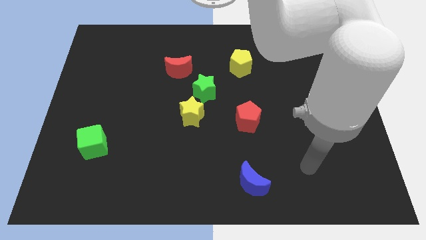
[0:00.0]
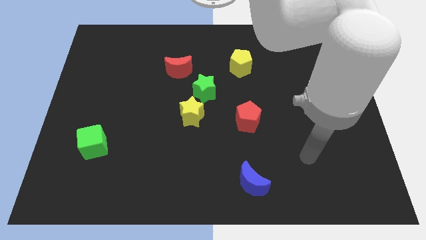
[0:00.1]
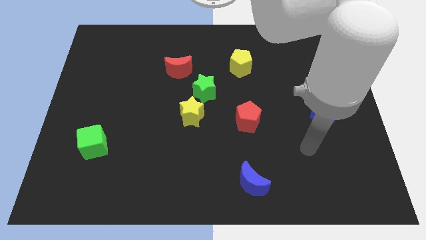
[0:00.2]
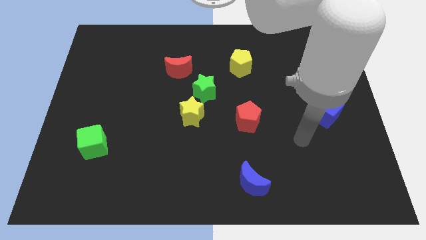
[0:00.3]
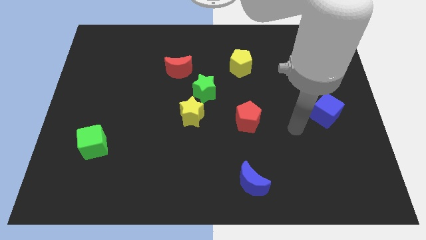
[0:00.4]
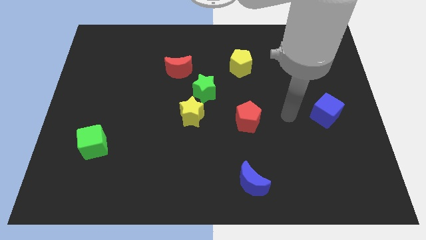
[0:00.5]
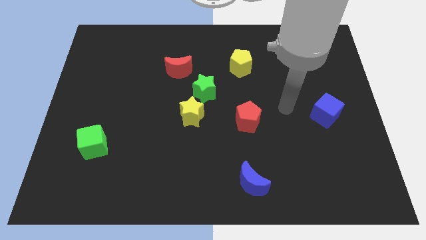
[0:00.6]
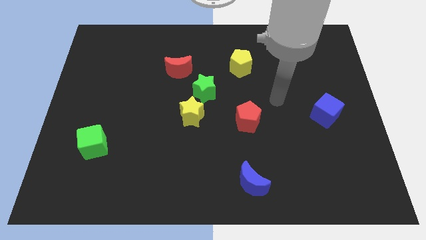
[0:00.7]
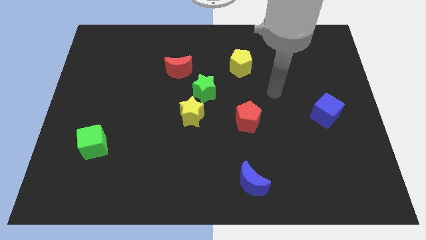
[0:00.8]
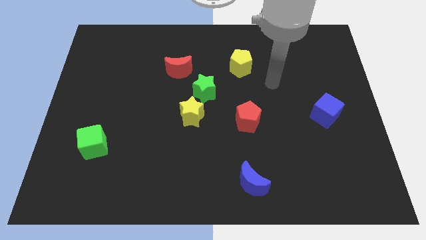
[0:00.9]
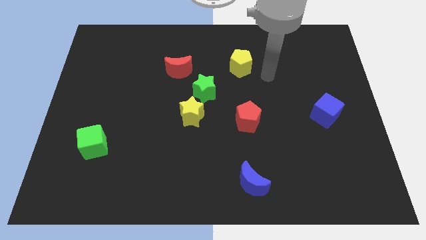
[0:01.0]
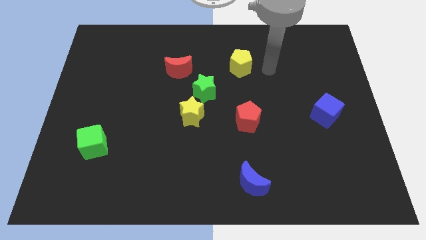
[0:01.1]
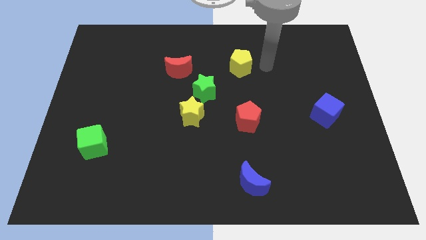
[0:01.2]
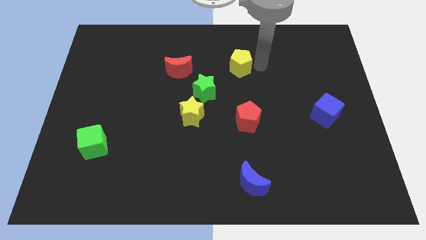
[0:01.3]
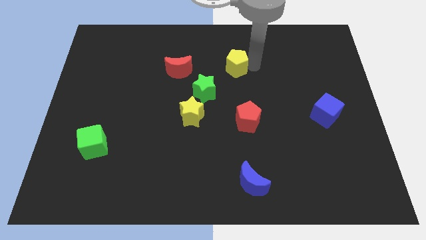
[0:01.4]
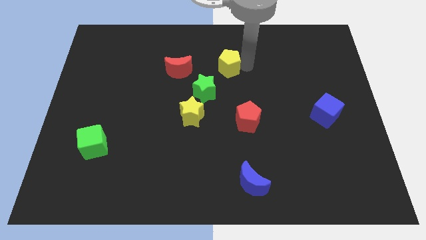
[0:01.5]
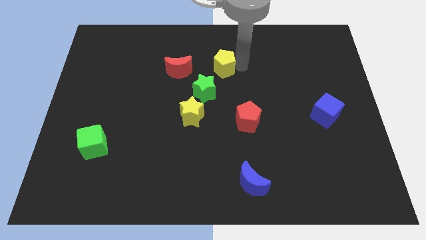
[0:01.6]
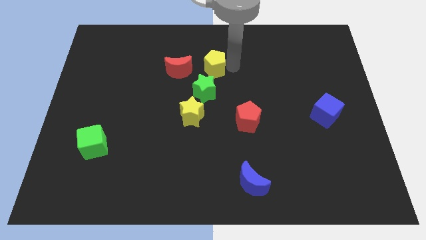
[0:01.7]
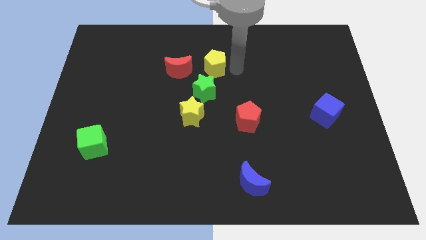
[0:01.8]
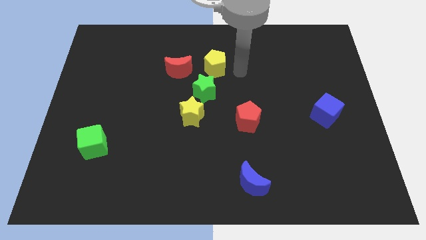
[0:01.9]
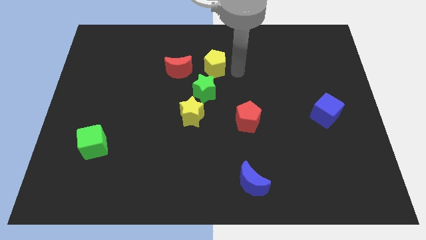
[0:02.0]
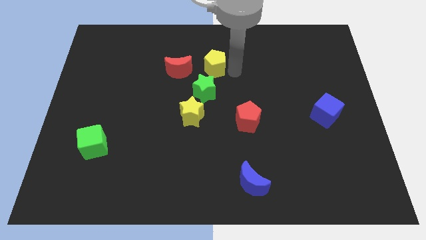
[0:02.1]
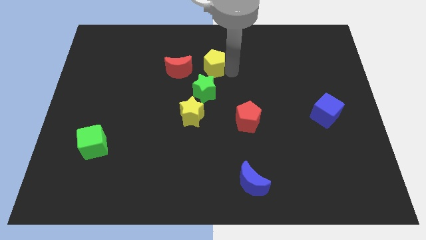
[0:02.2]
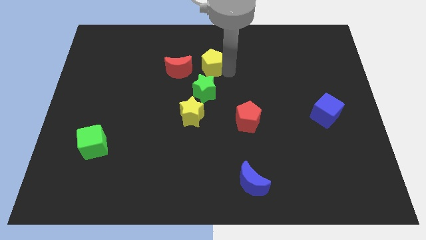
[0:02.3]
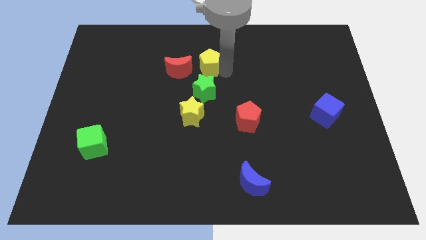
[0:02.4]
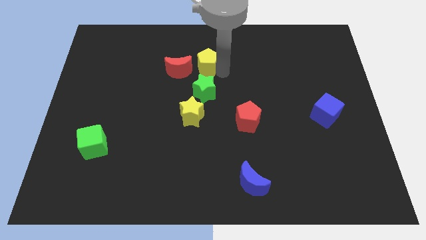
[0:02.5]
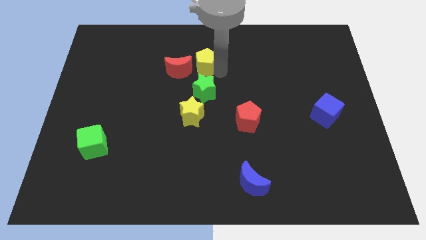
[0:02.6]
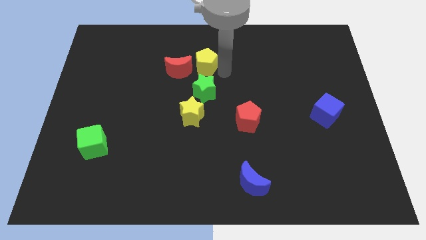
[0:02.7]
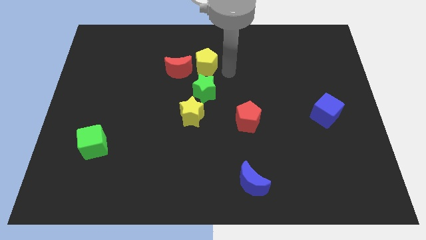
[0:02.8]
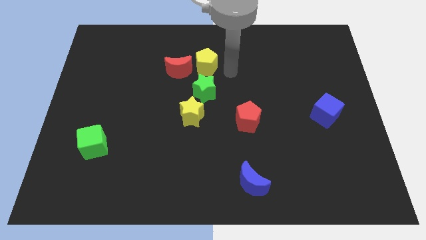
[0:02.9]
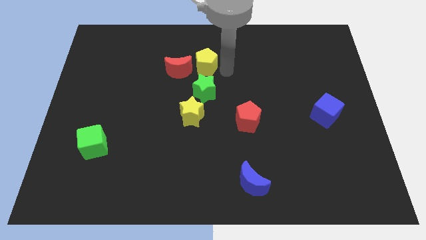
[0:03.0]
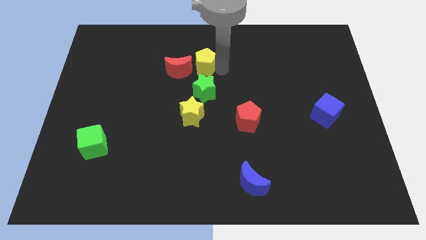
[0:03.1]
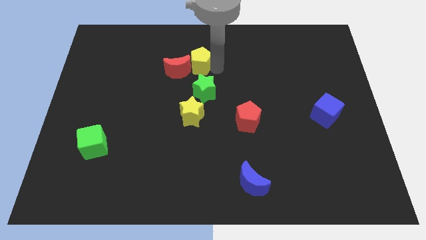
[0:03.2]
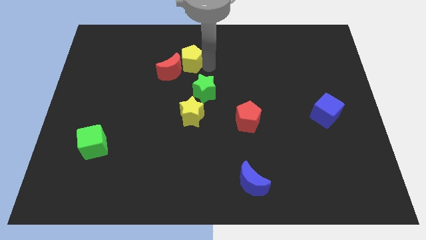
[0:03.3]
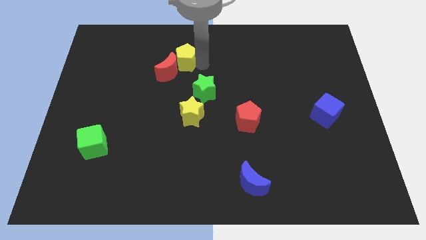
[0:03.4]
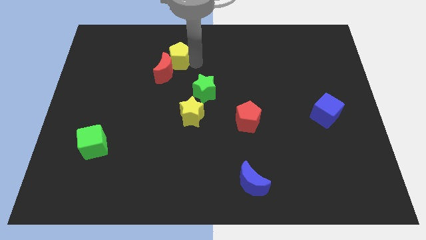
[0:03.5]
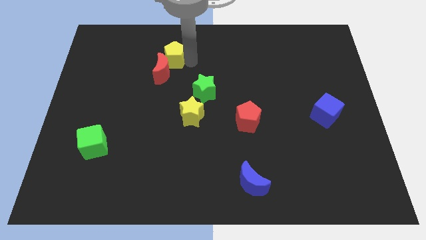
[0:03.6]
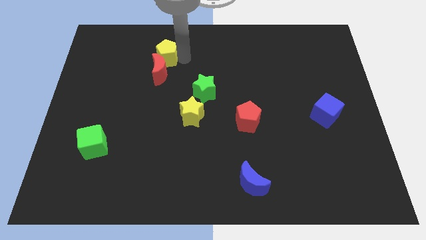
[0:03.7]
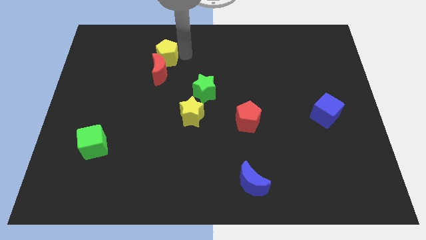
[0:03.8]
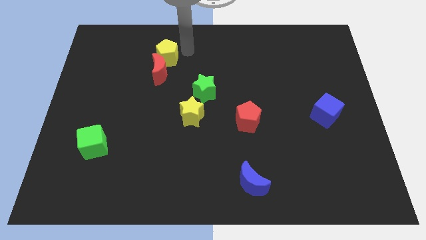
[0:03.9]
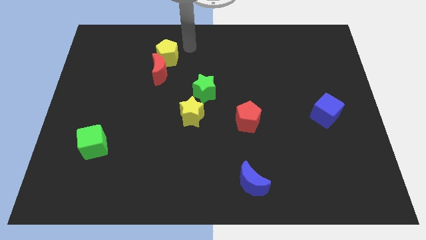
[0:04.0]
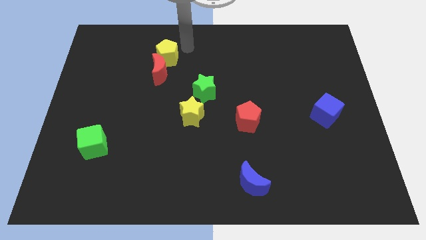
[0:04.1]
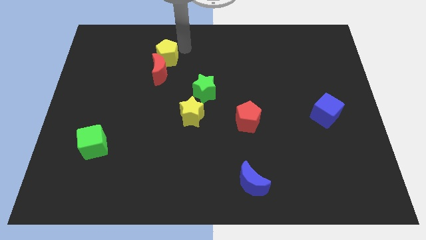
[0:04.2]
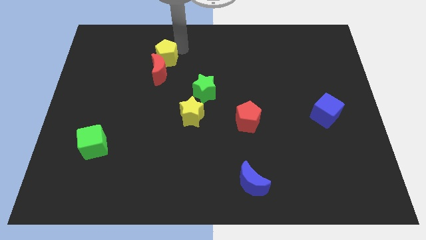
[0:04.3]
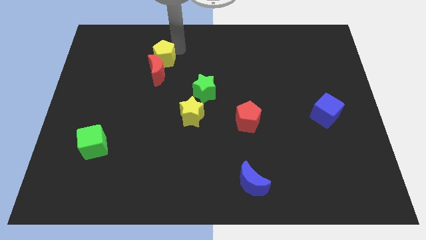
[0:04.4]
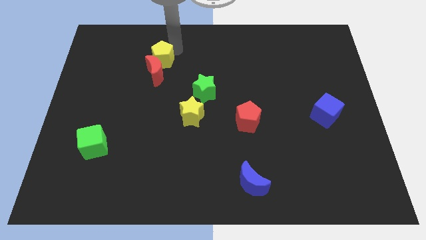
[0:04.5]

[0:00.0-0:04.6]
move the yellow pentagon to the left

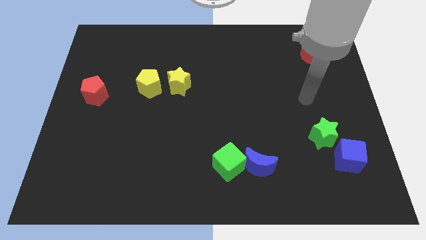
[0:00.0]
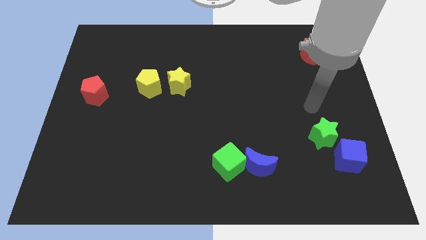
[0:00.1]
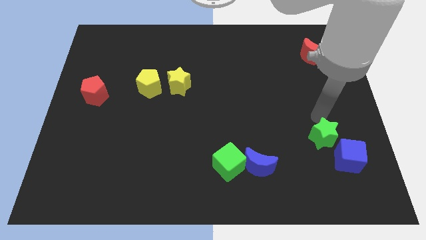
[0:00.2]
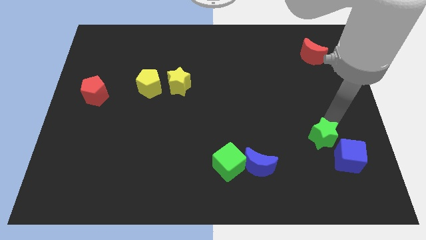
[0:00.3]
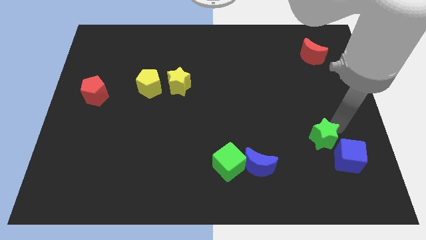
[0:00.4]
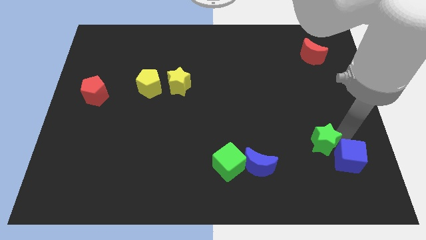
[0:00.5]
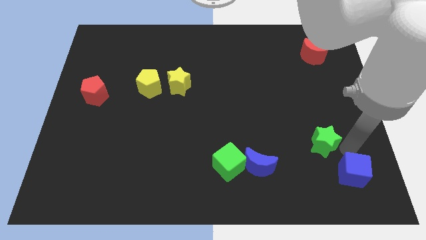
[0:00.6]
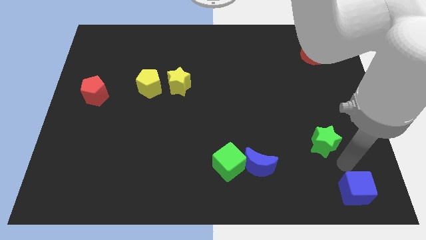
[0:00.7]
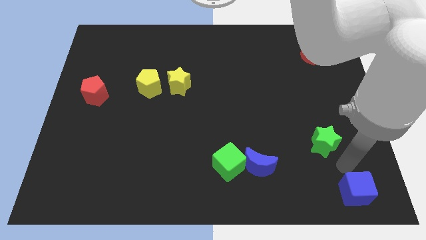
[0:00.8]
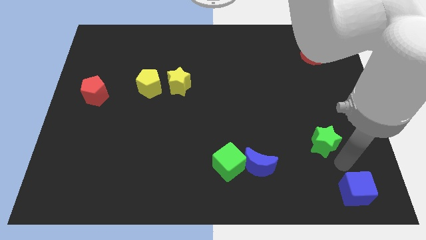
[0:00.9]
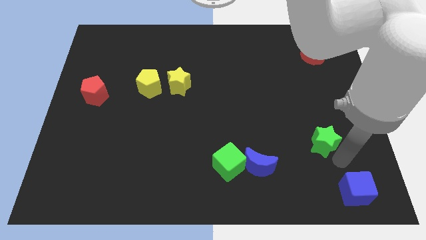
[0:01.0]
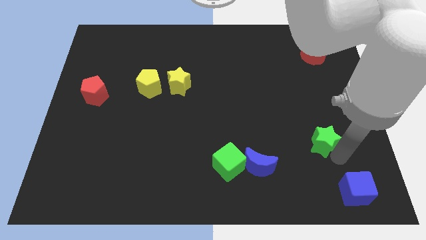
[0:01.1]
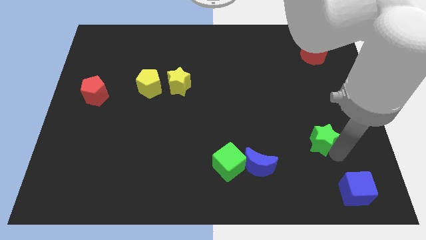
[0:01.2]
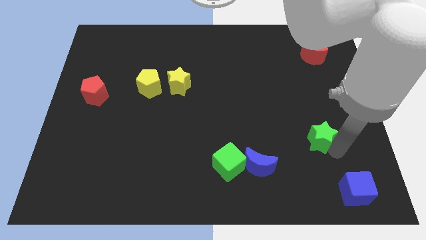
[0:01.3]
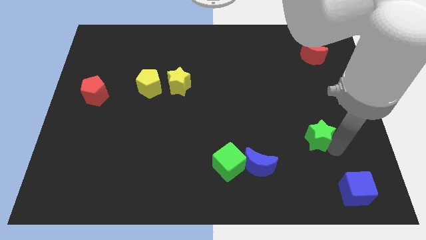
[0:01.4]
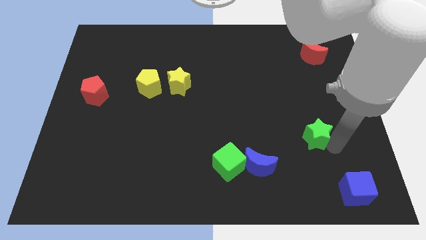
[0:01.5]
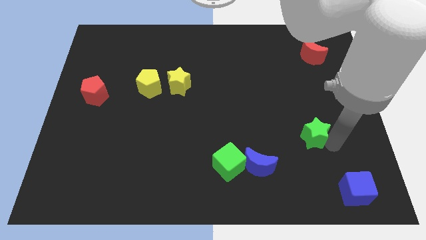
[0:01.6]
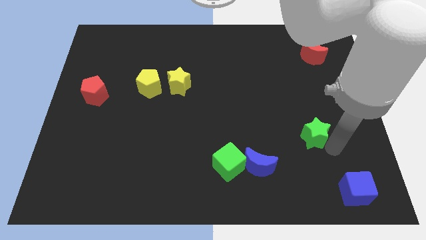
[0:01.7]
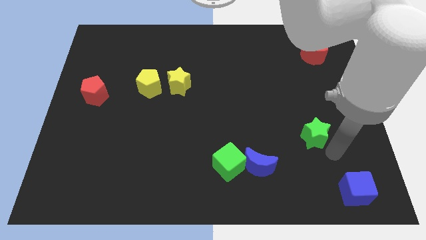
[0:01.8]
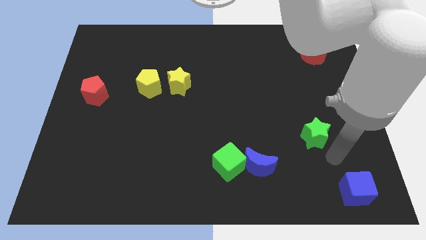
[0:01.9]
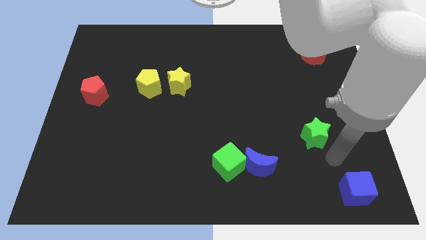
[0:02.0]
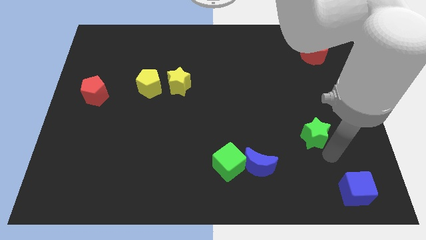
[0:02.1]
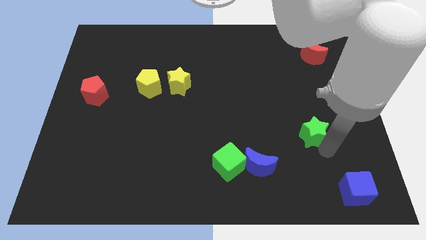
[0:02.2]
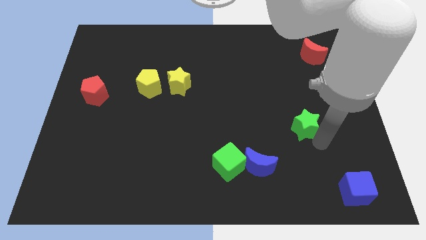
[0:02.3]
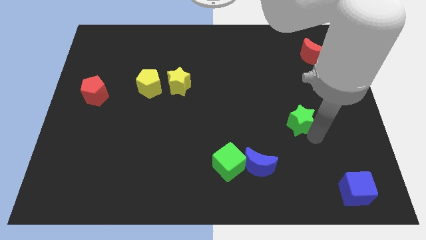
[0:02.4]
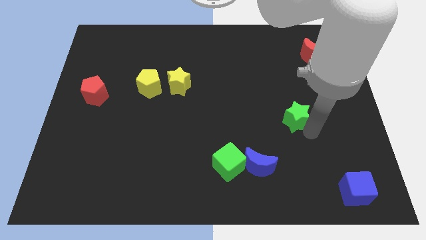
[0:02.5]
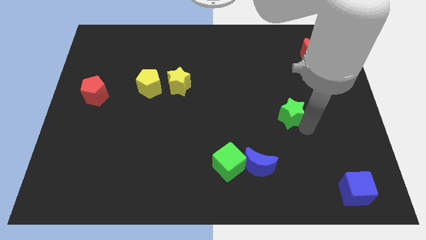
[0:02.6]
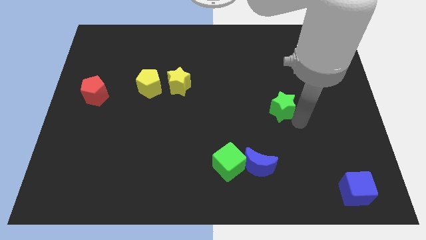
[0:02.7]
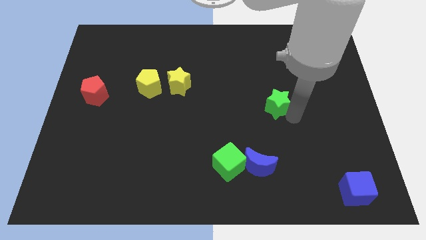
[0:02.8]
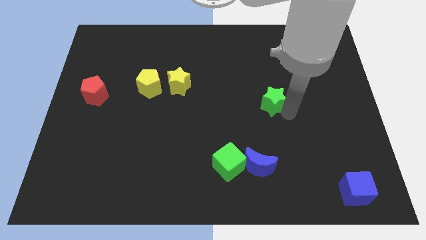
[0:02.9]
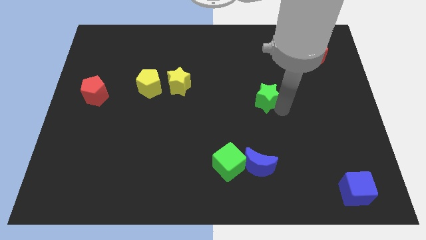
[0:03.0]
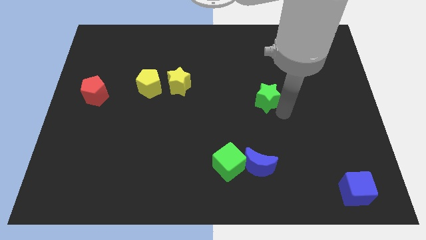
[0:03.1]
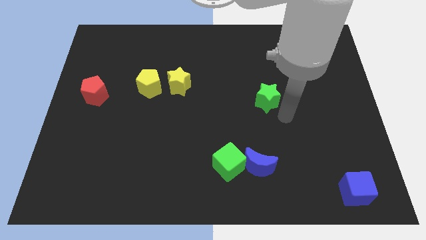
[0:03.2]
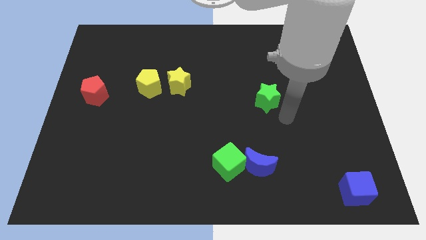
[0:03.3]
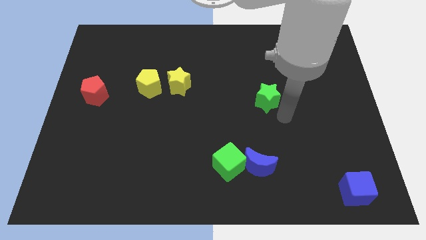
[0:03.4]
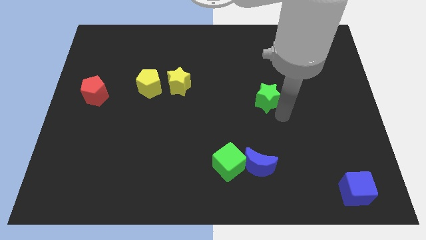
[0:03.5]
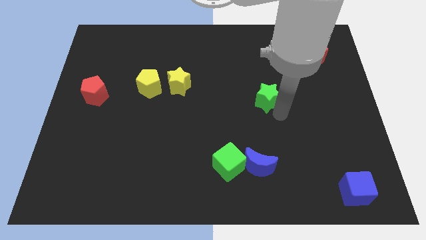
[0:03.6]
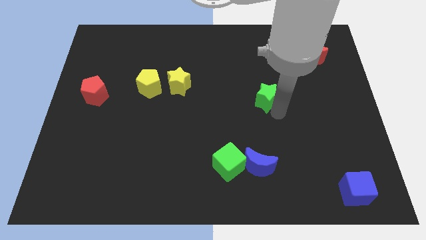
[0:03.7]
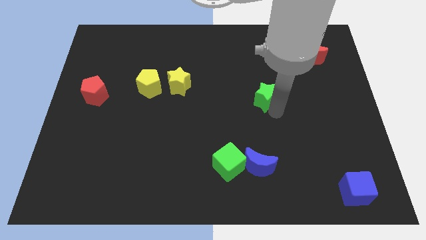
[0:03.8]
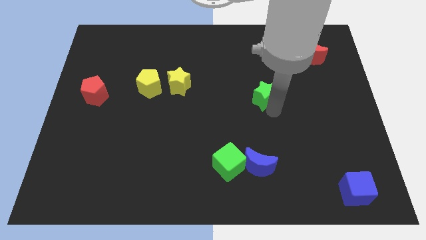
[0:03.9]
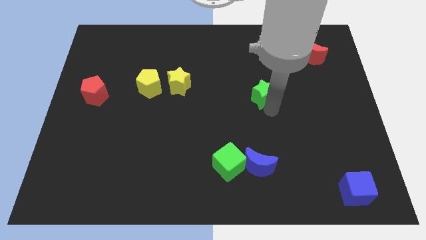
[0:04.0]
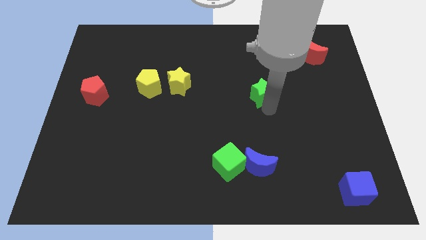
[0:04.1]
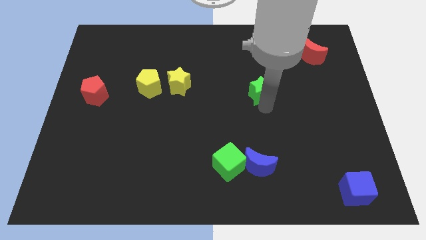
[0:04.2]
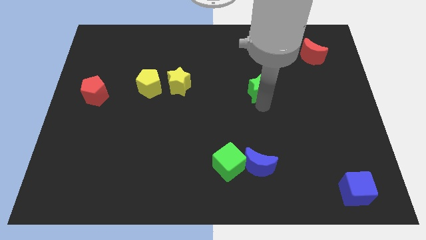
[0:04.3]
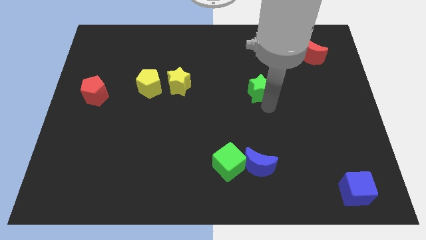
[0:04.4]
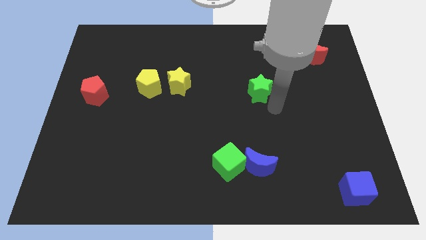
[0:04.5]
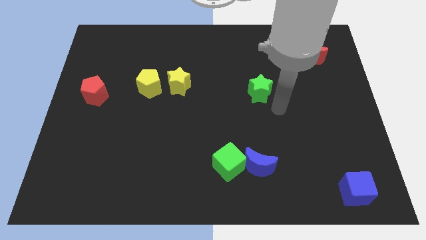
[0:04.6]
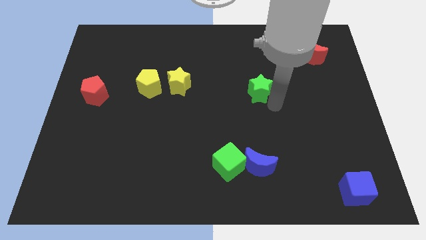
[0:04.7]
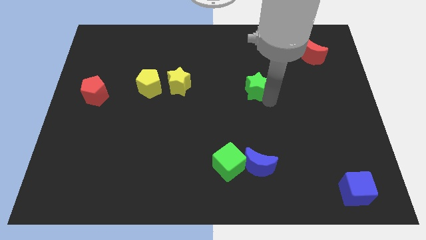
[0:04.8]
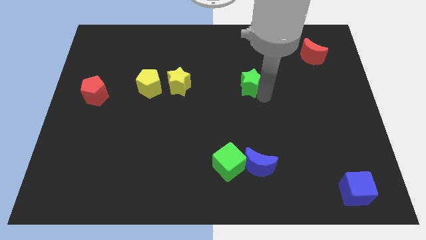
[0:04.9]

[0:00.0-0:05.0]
slide the green star up and then to the left
